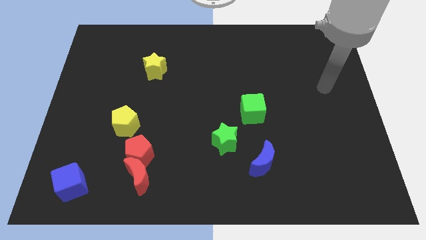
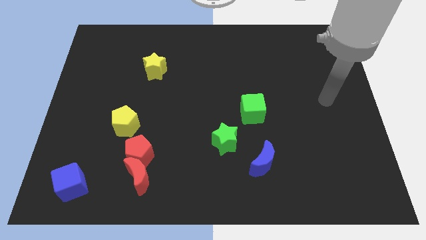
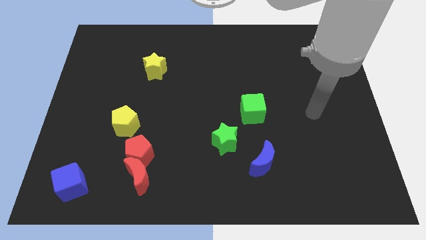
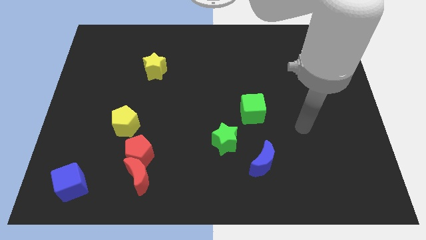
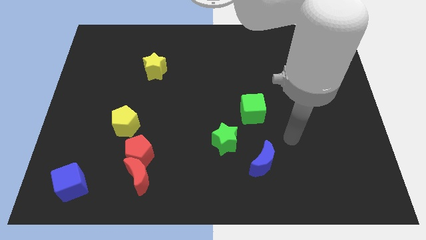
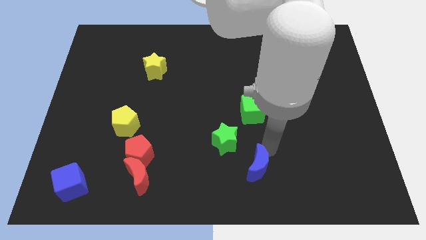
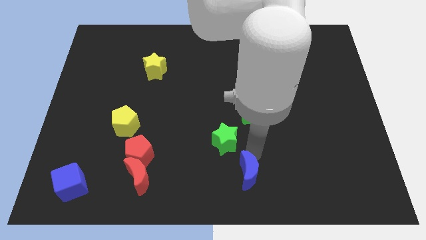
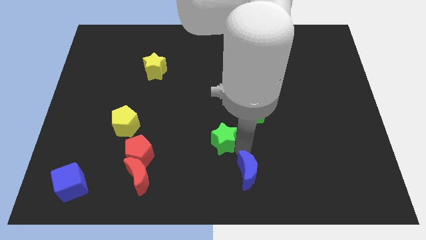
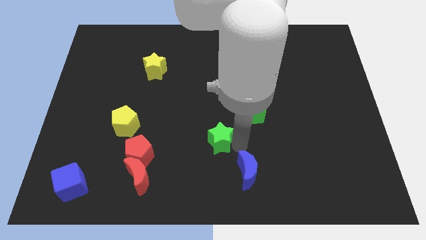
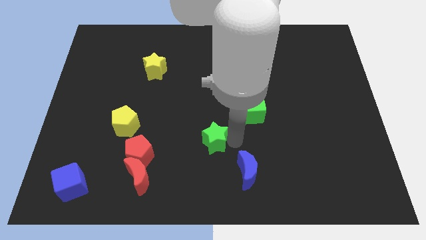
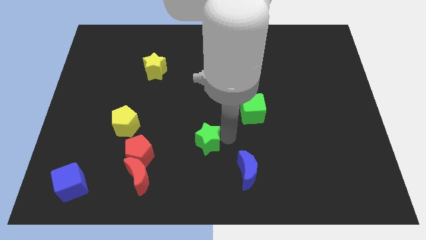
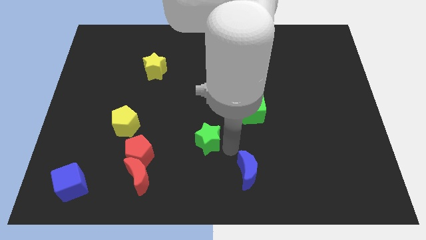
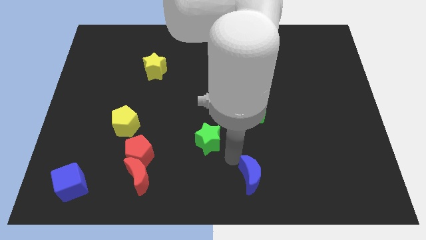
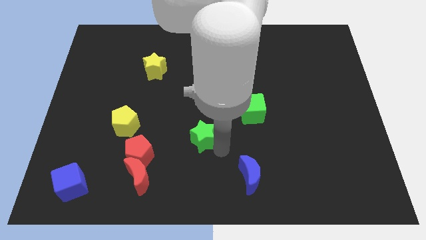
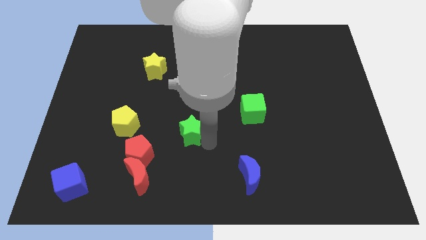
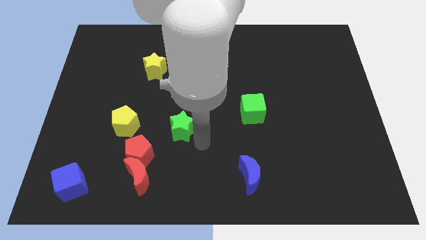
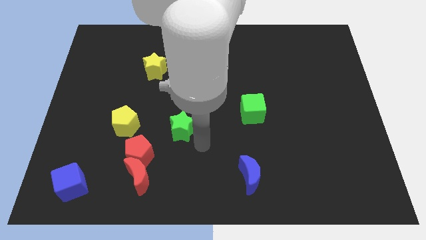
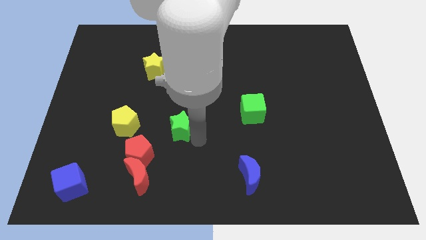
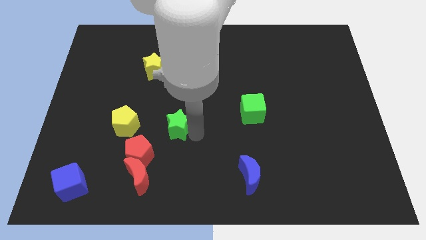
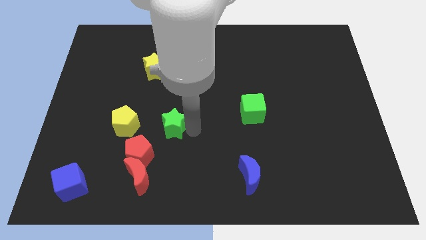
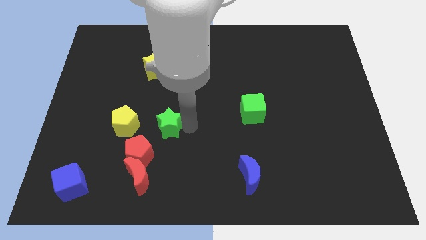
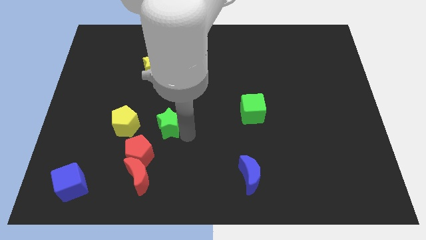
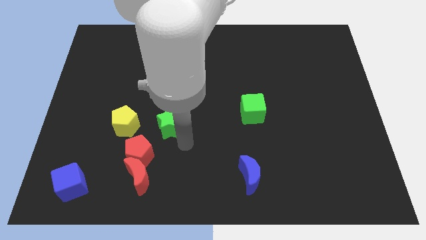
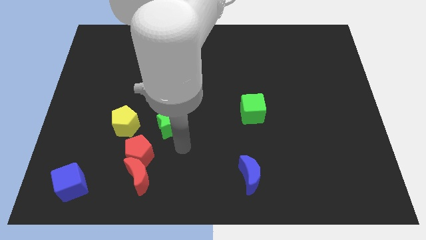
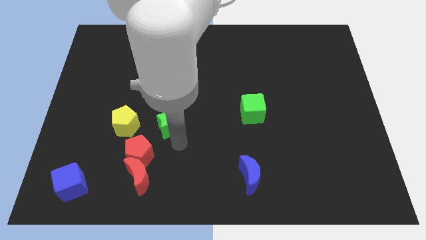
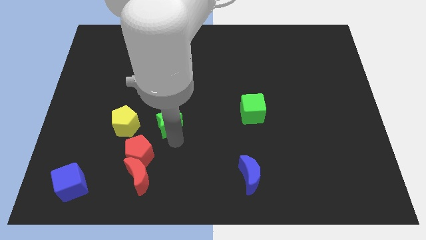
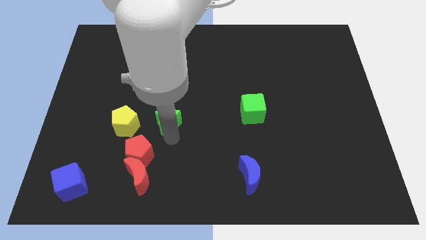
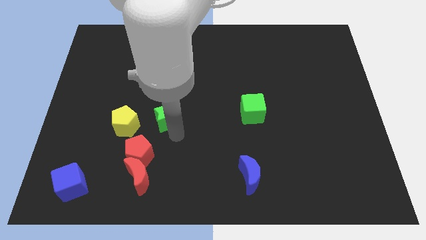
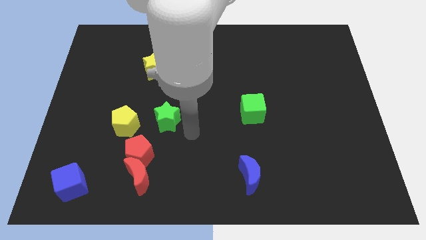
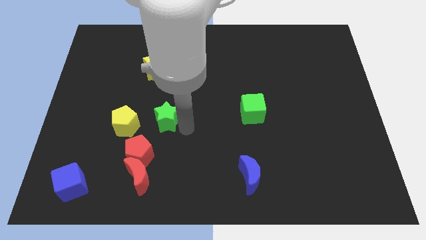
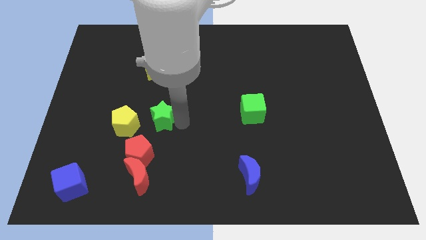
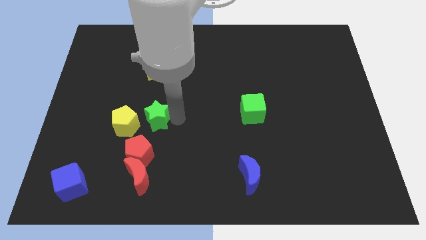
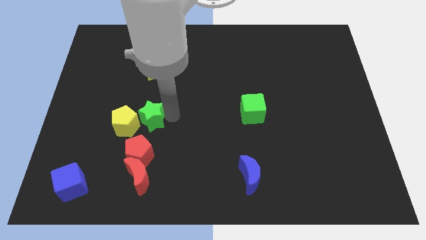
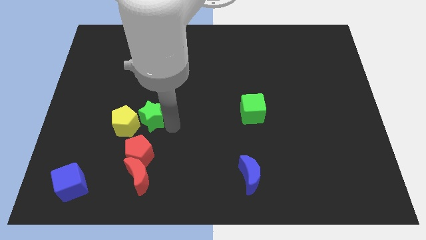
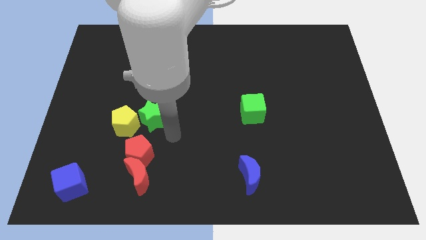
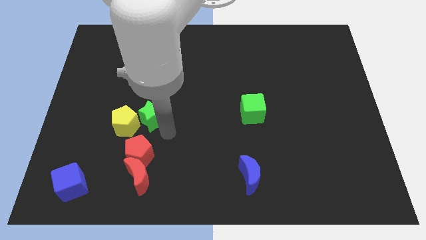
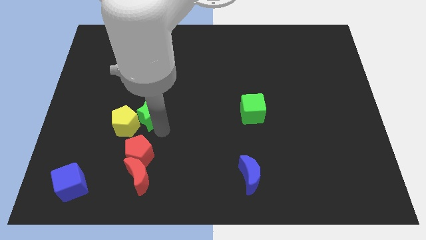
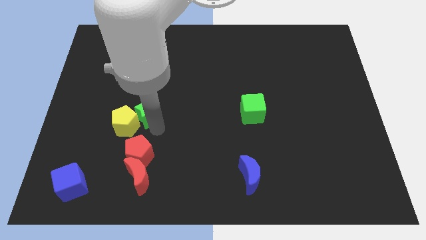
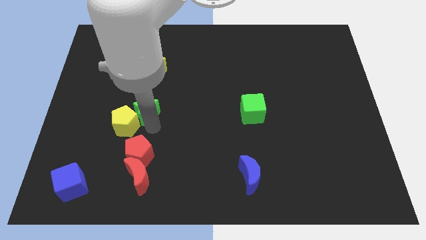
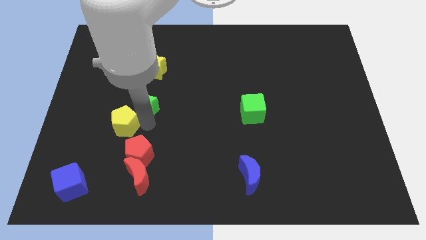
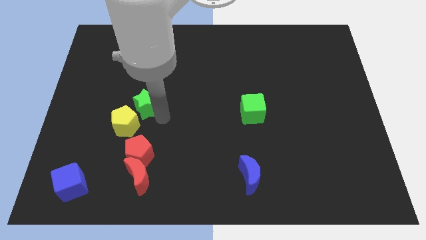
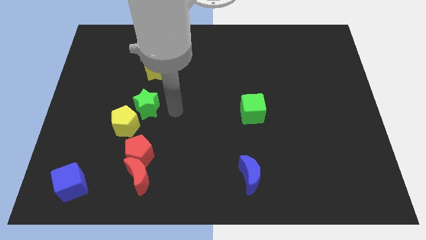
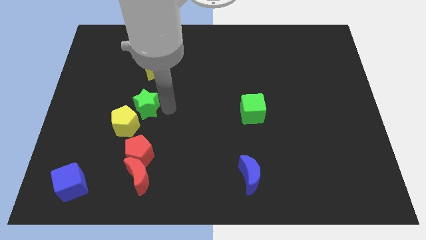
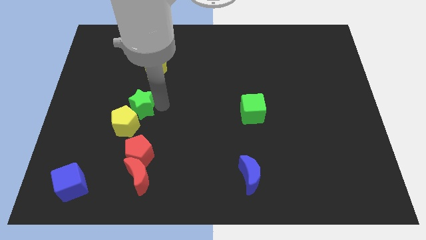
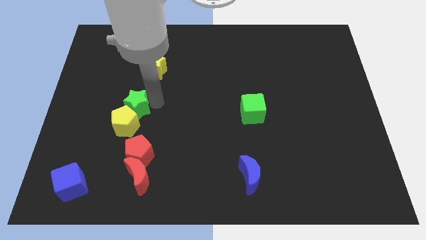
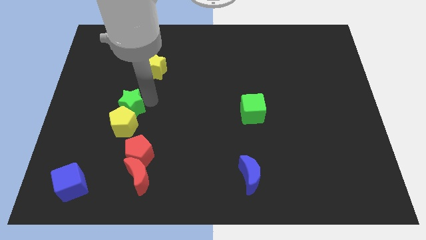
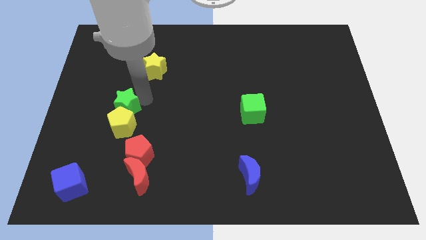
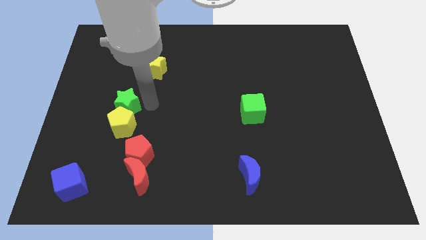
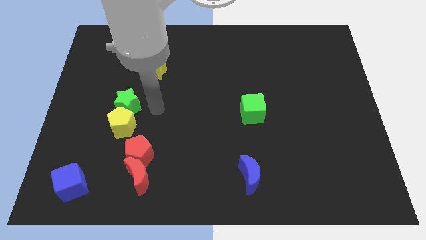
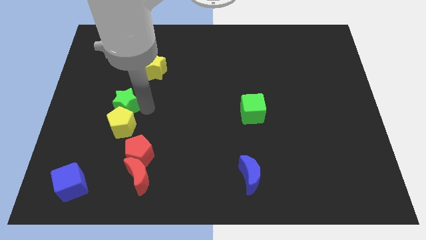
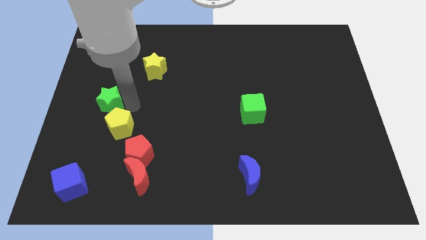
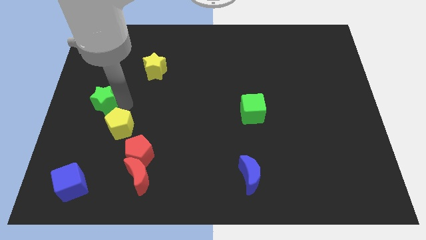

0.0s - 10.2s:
push the green star to the left side of the board

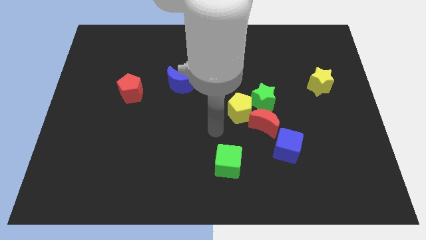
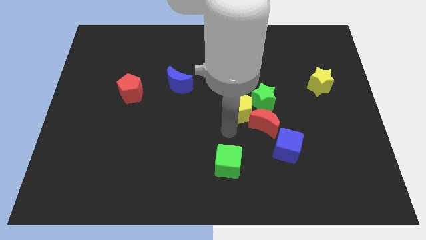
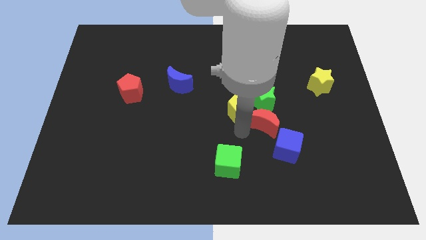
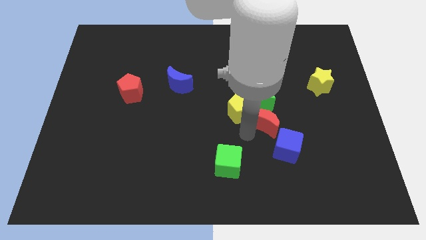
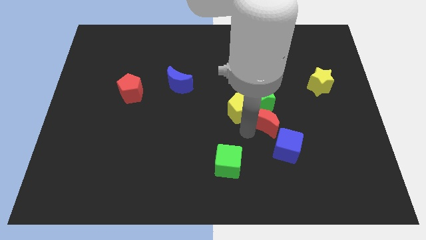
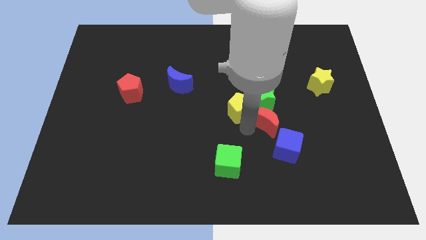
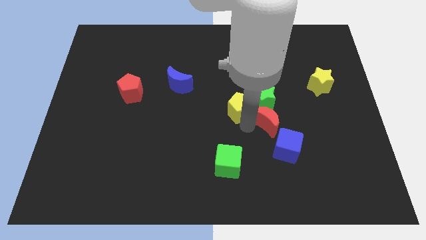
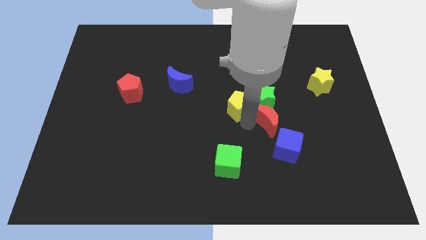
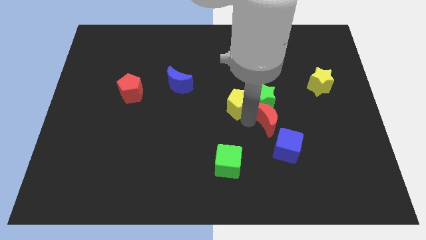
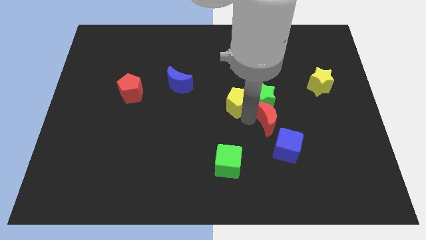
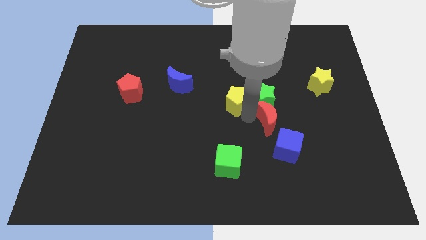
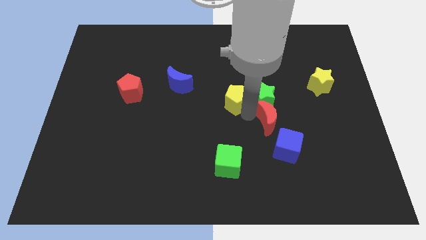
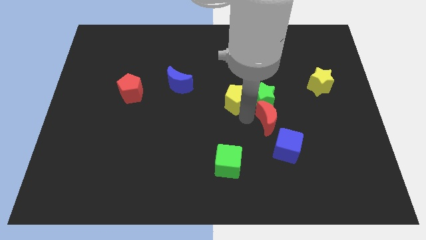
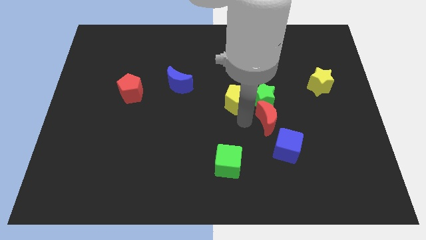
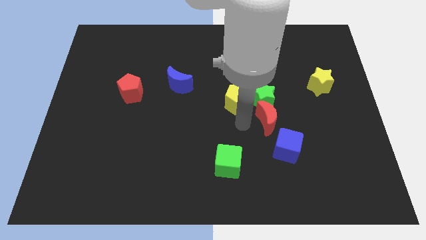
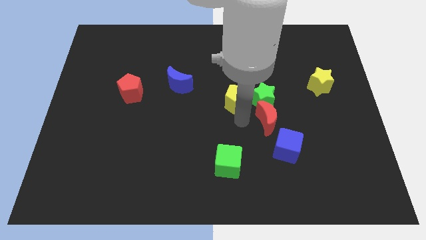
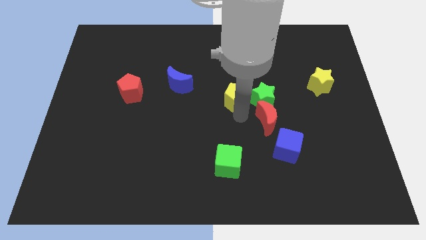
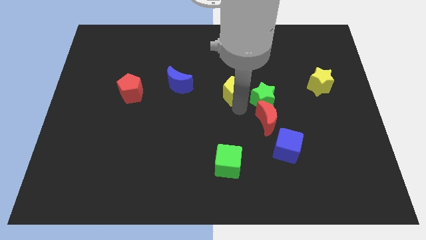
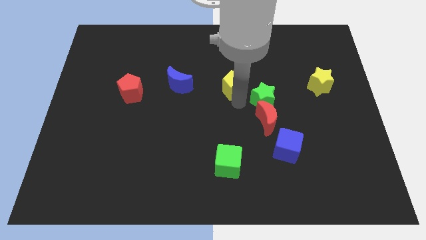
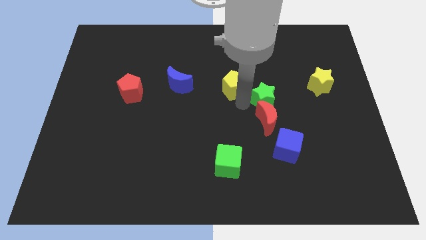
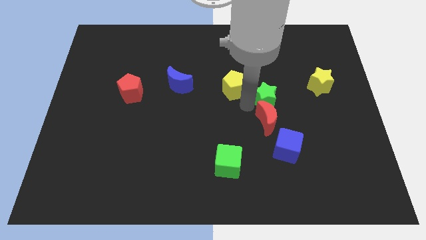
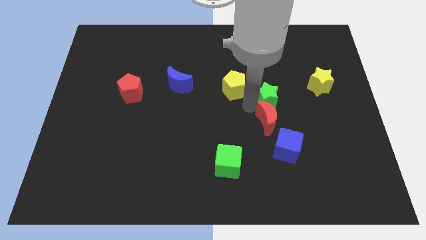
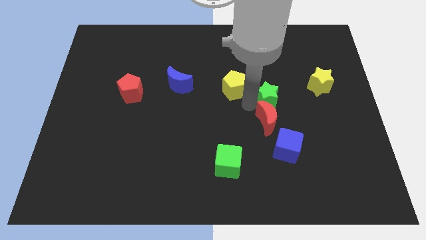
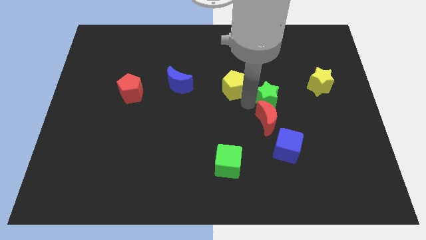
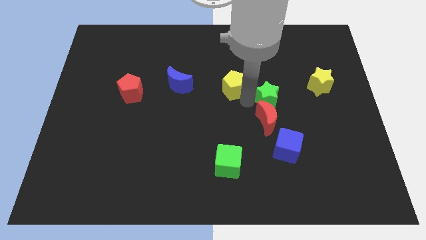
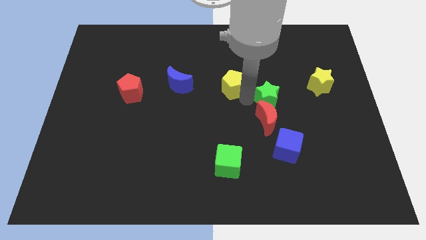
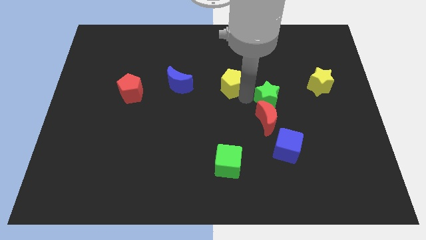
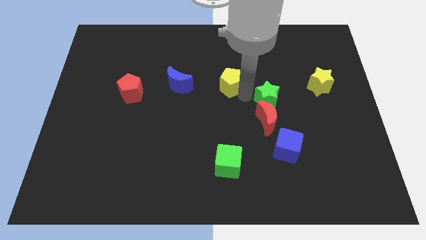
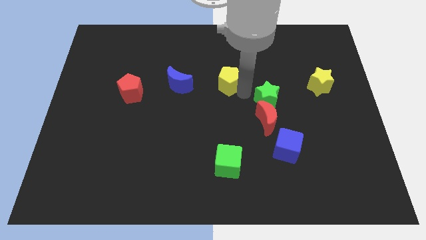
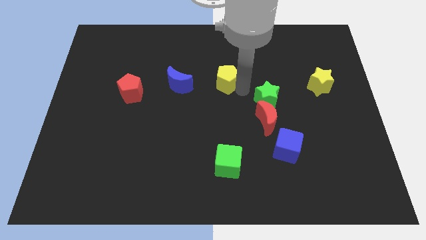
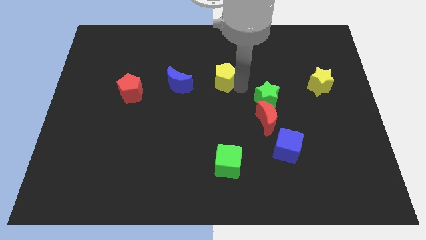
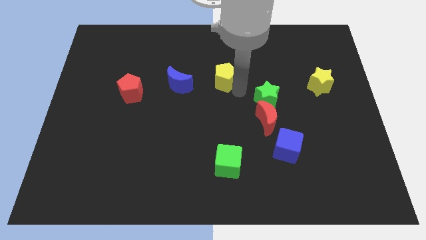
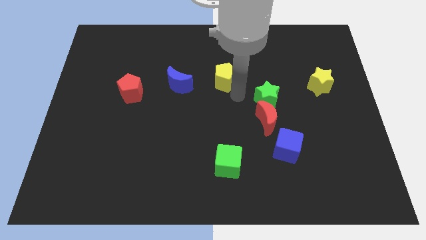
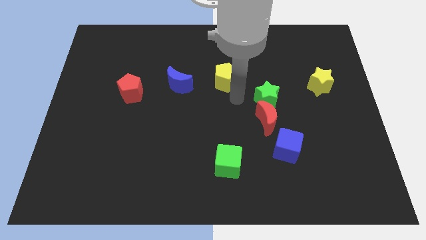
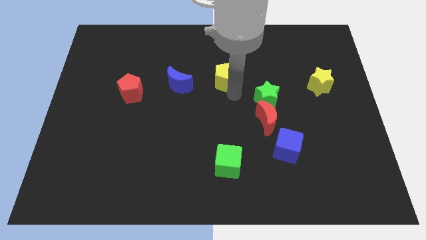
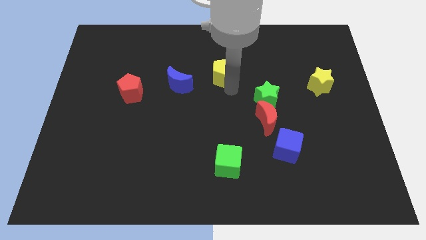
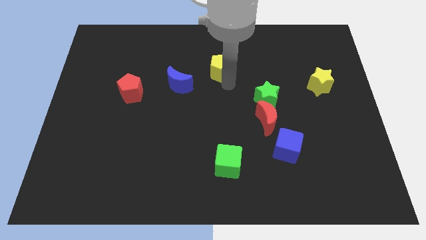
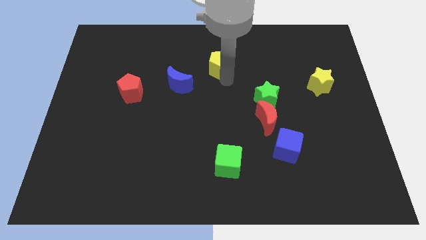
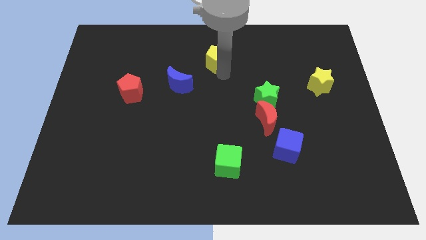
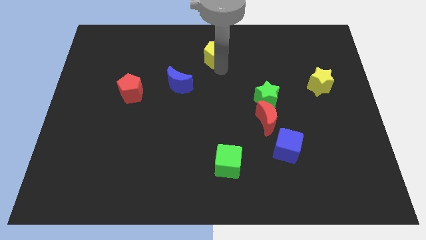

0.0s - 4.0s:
move the yellow pentagon to the top side
